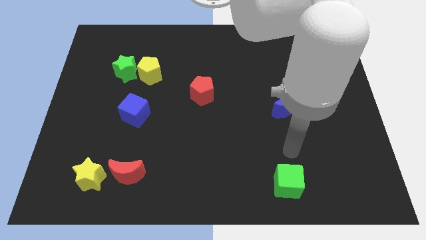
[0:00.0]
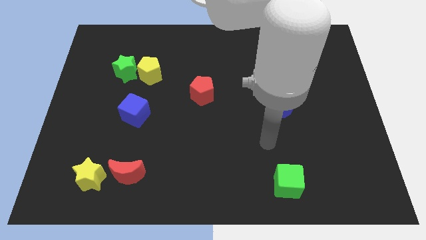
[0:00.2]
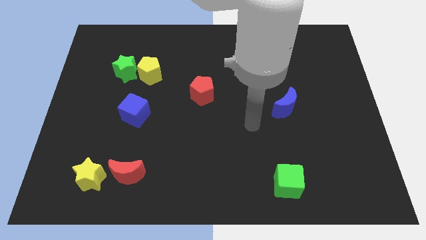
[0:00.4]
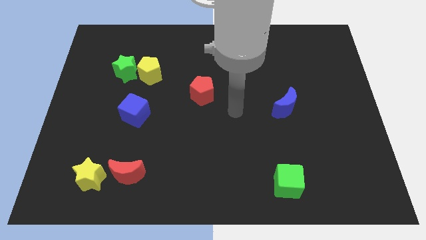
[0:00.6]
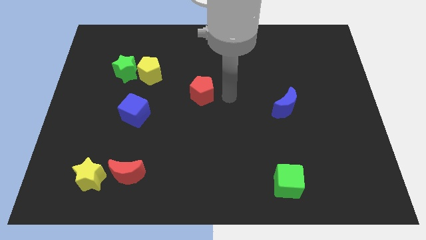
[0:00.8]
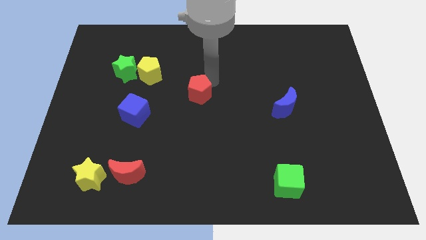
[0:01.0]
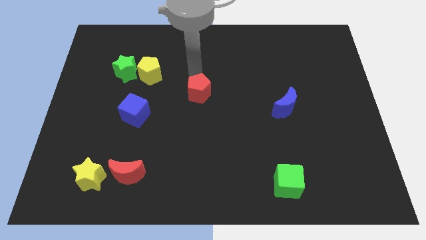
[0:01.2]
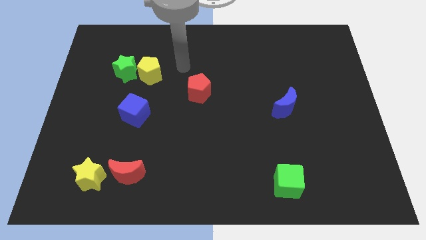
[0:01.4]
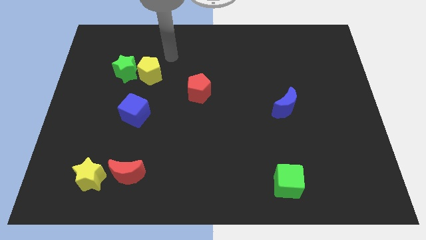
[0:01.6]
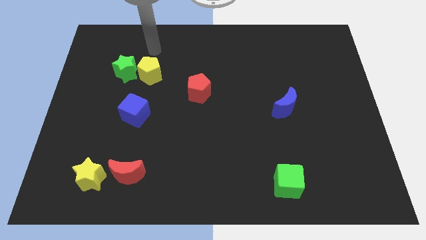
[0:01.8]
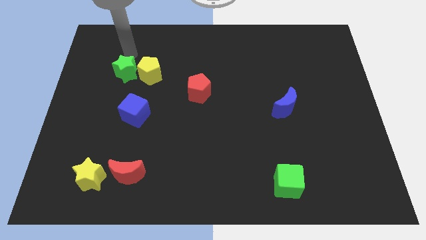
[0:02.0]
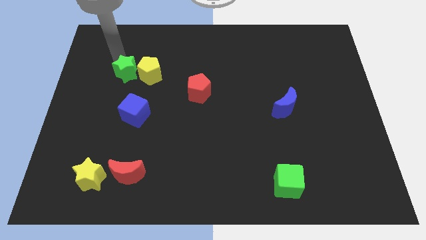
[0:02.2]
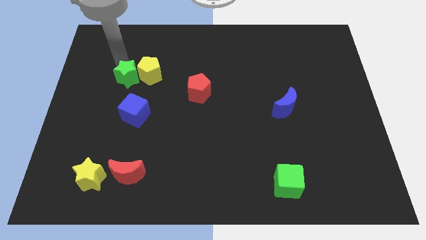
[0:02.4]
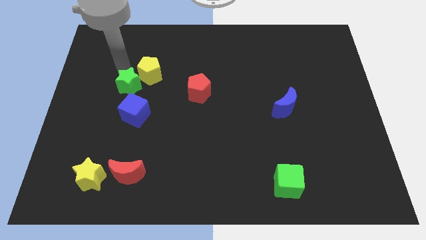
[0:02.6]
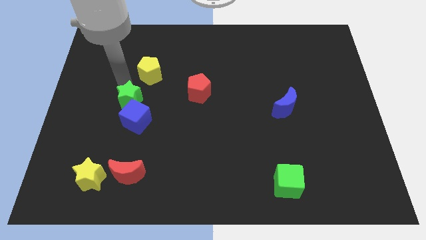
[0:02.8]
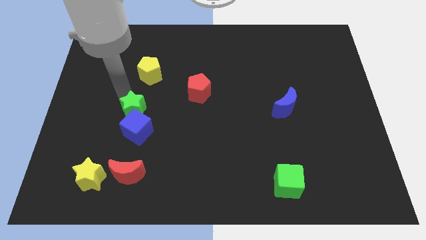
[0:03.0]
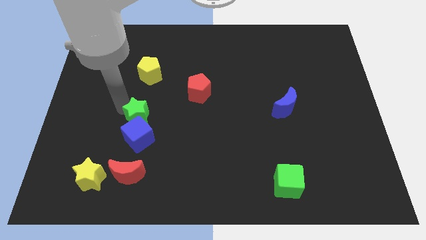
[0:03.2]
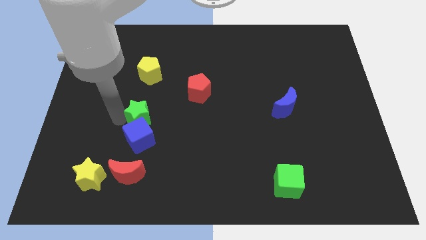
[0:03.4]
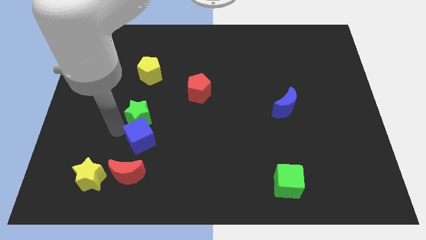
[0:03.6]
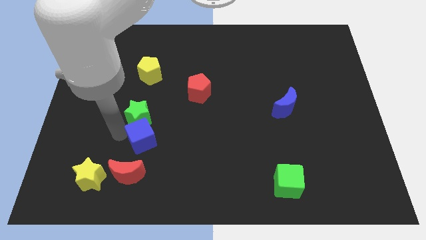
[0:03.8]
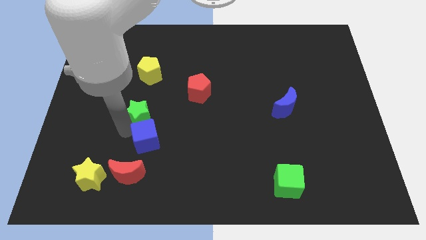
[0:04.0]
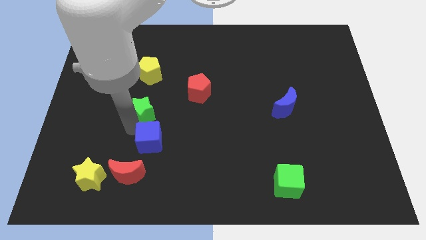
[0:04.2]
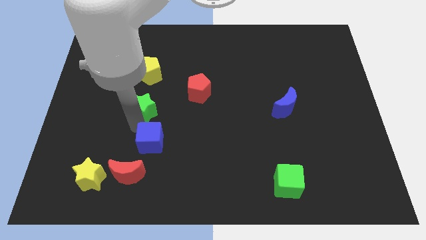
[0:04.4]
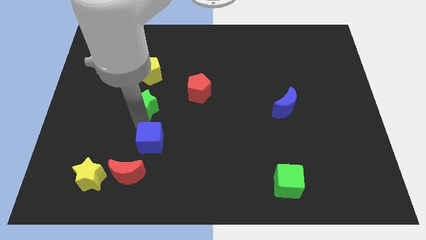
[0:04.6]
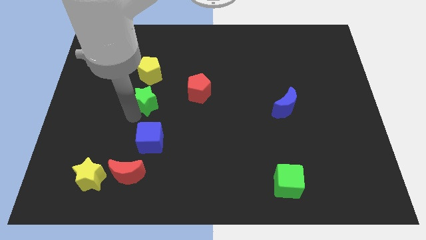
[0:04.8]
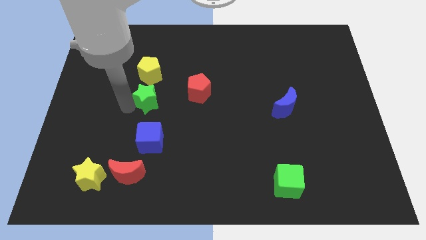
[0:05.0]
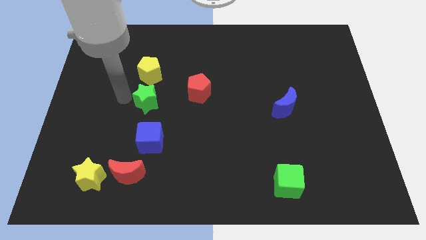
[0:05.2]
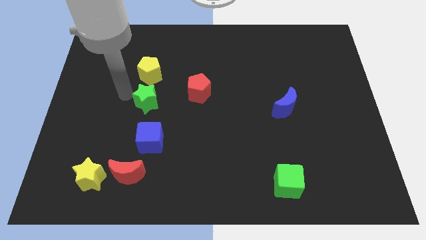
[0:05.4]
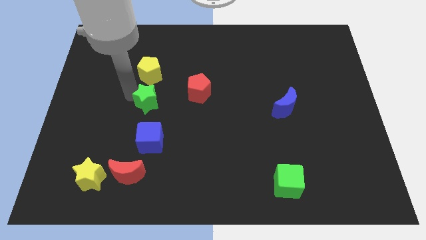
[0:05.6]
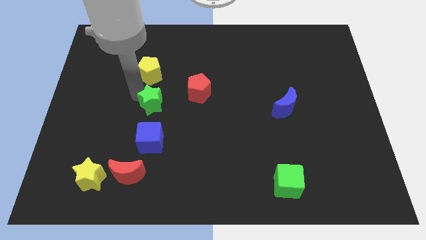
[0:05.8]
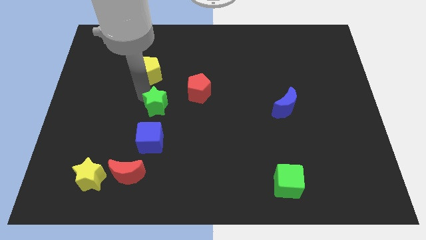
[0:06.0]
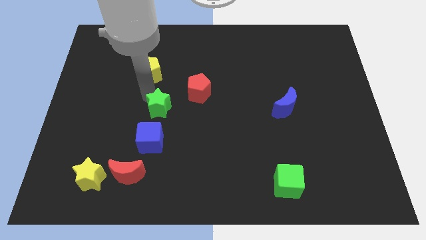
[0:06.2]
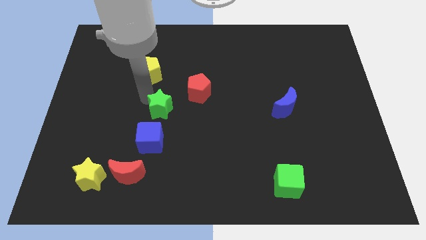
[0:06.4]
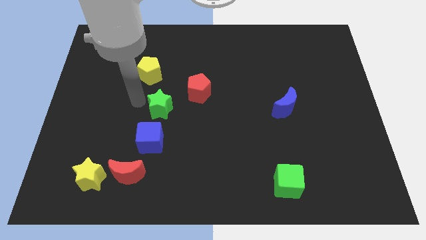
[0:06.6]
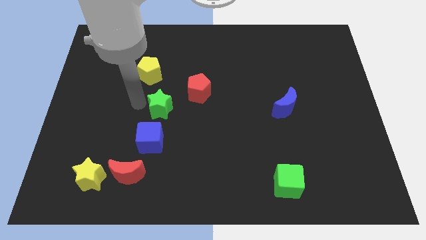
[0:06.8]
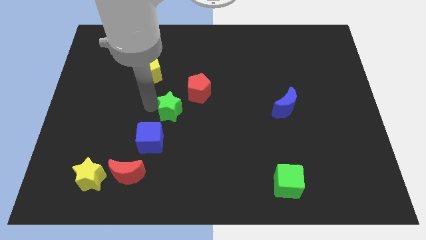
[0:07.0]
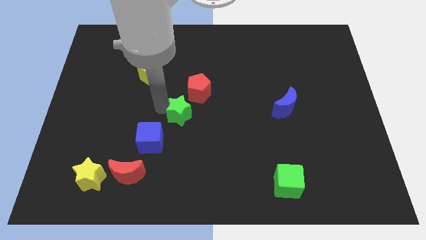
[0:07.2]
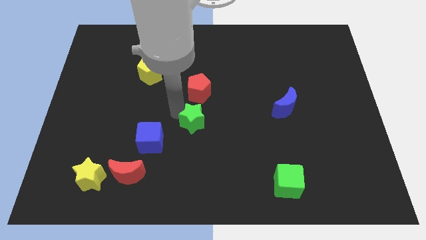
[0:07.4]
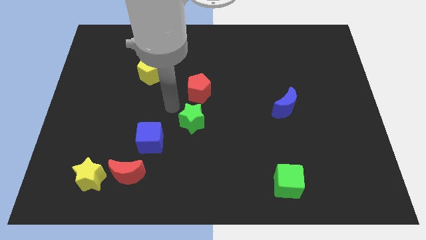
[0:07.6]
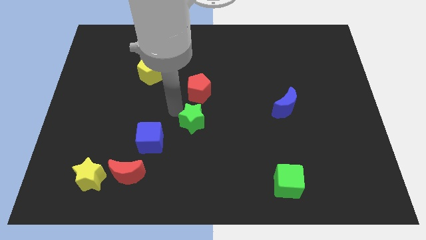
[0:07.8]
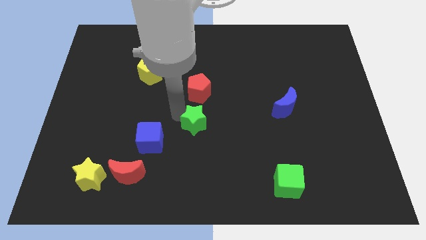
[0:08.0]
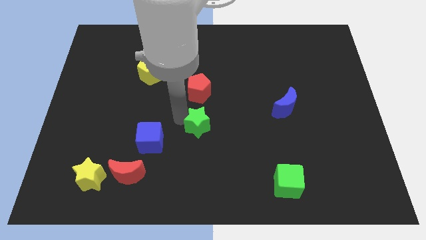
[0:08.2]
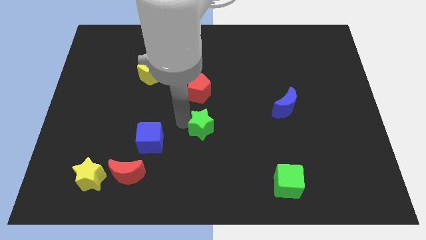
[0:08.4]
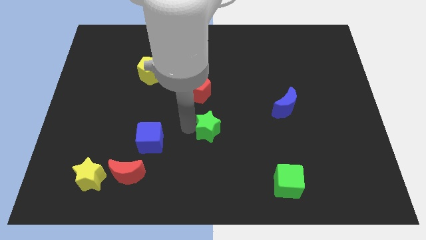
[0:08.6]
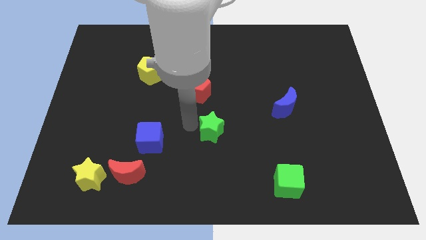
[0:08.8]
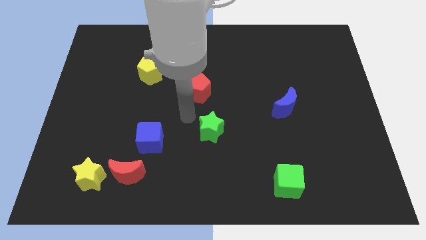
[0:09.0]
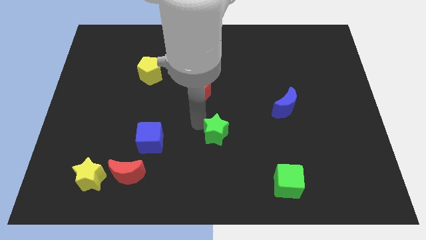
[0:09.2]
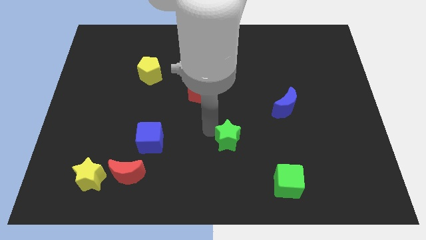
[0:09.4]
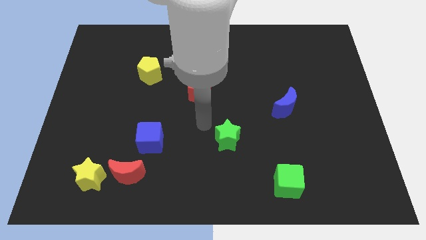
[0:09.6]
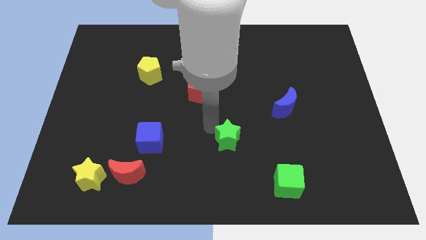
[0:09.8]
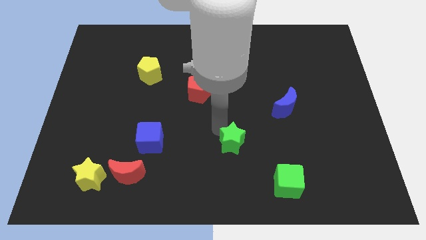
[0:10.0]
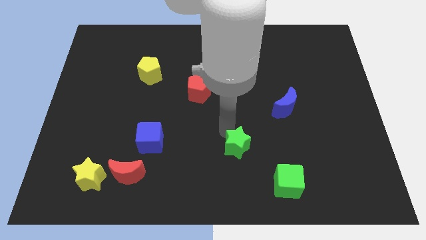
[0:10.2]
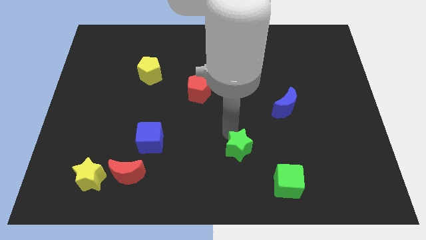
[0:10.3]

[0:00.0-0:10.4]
move the green star to the top left side of the green cube

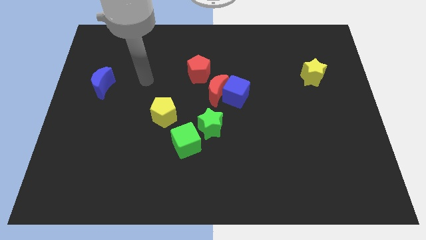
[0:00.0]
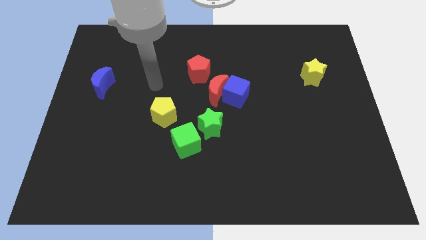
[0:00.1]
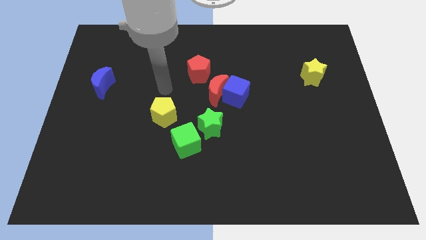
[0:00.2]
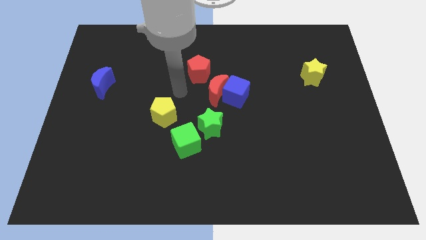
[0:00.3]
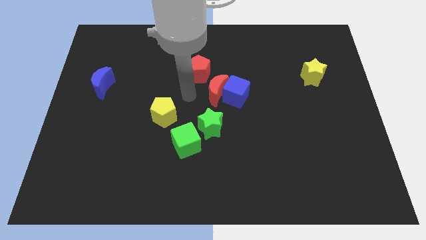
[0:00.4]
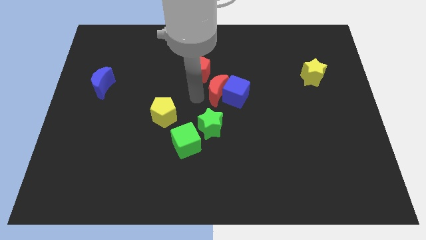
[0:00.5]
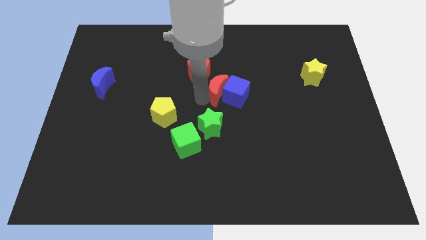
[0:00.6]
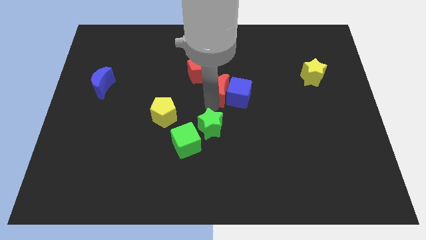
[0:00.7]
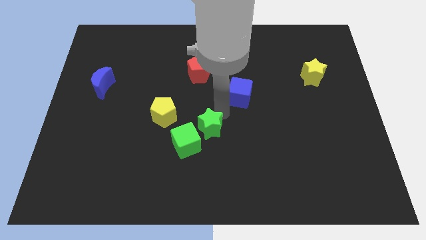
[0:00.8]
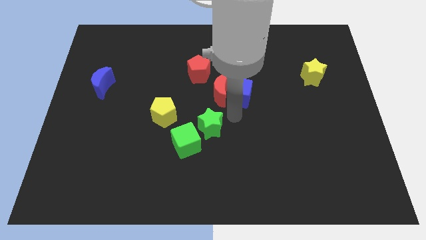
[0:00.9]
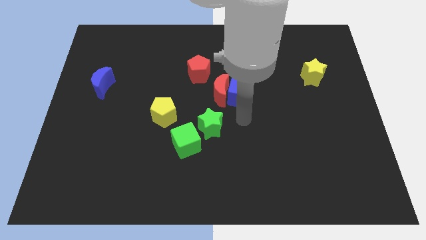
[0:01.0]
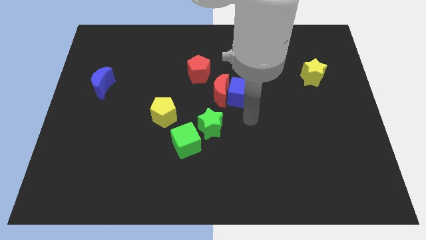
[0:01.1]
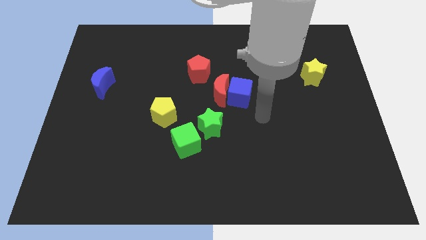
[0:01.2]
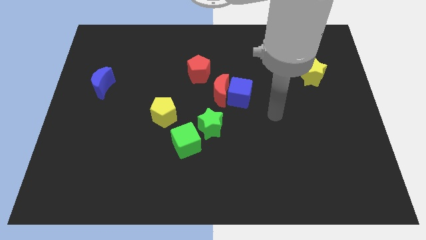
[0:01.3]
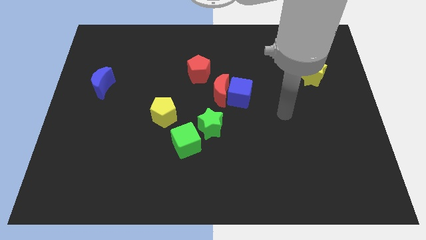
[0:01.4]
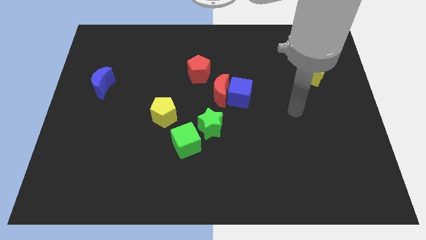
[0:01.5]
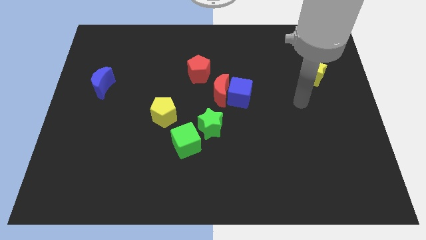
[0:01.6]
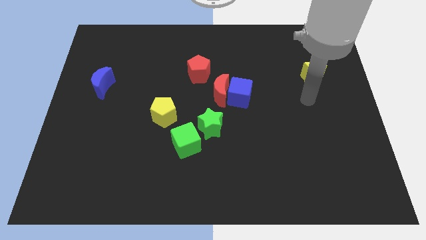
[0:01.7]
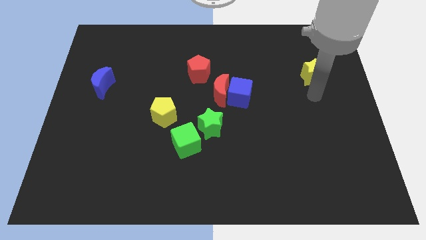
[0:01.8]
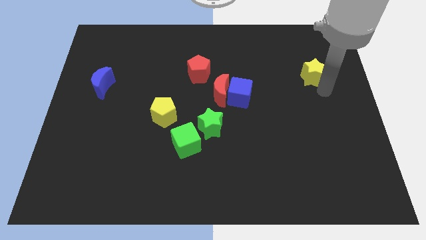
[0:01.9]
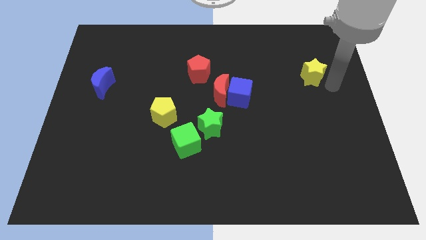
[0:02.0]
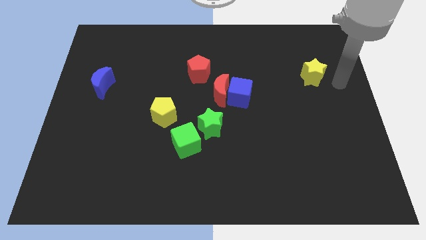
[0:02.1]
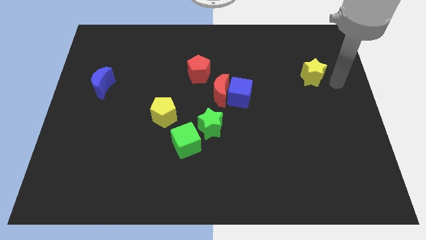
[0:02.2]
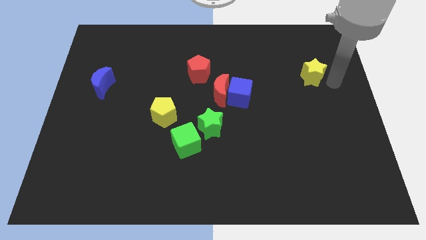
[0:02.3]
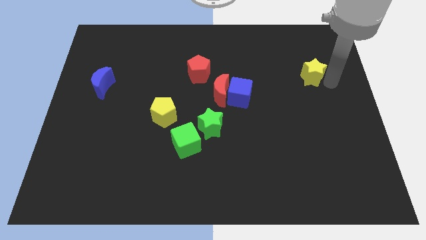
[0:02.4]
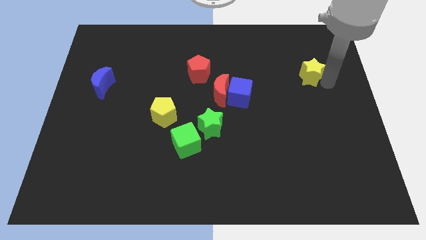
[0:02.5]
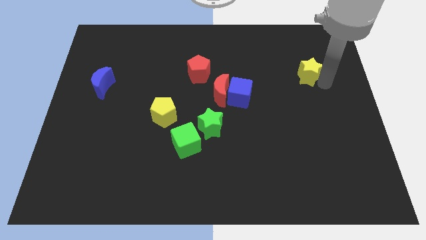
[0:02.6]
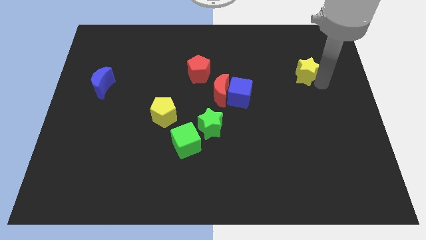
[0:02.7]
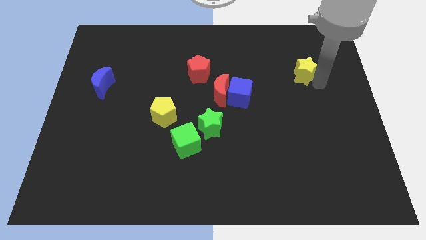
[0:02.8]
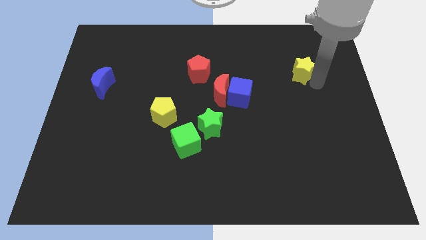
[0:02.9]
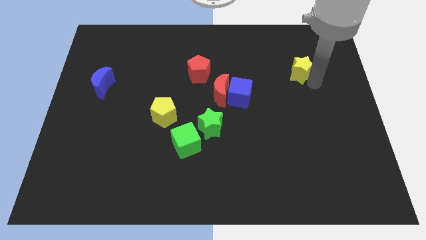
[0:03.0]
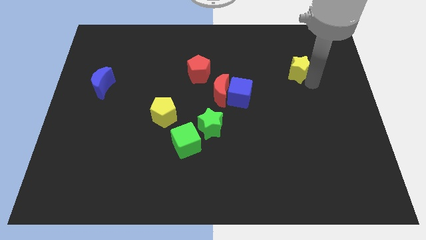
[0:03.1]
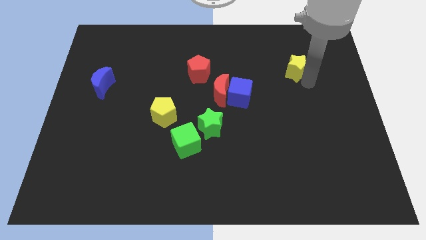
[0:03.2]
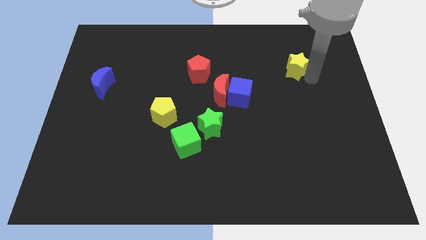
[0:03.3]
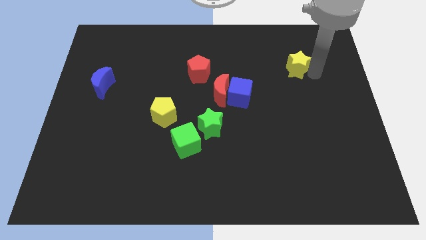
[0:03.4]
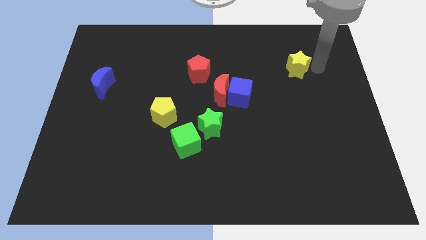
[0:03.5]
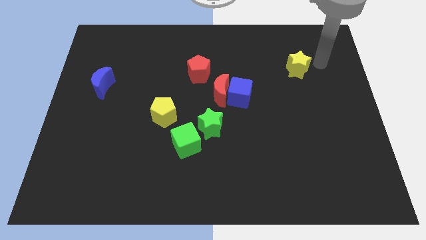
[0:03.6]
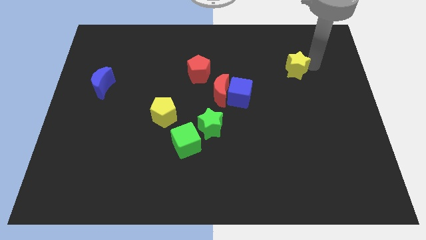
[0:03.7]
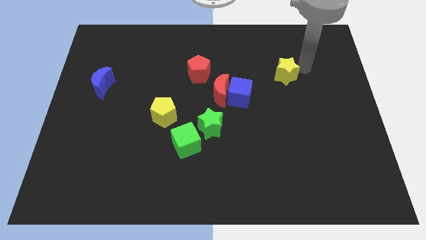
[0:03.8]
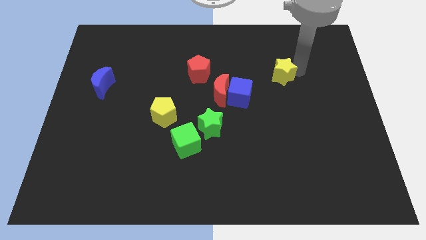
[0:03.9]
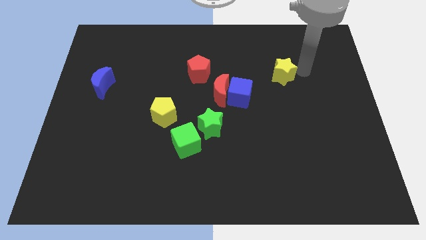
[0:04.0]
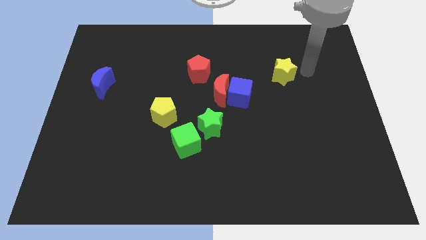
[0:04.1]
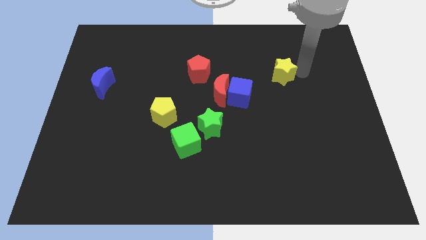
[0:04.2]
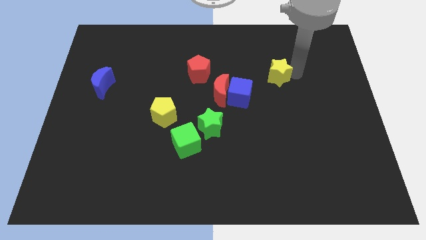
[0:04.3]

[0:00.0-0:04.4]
put the yellow star diagonally up and to the right of the blue cube
